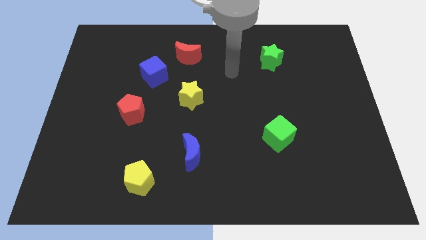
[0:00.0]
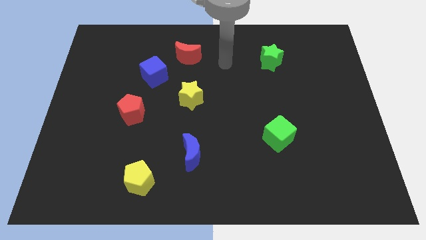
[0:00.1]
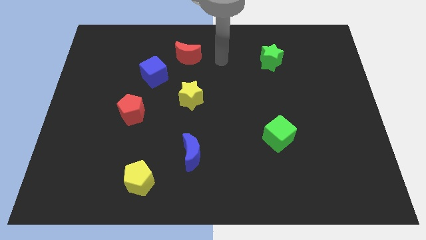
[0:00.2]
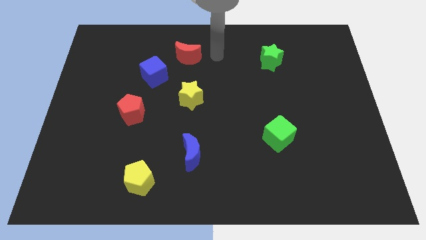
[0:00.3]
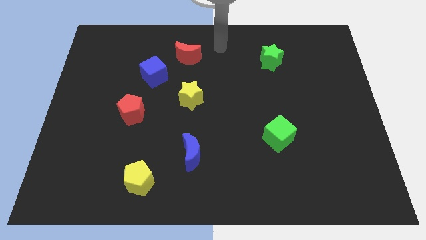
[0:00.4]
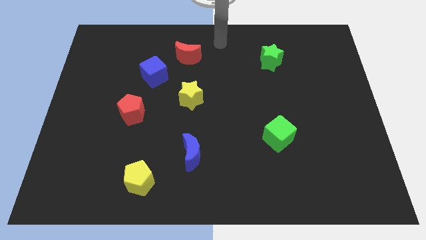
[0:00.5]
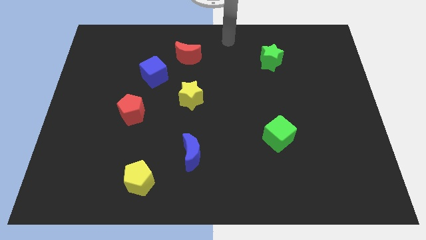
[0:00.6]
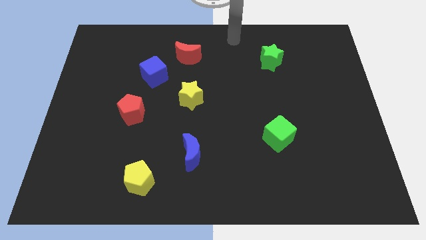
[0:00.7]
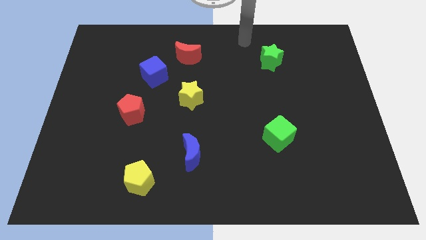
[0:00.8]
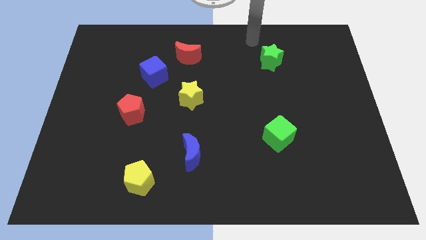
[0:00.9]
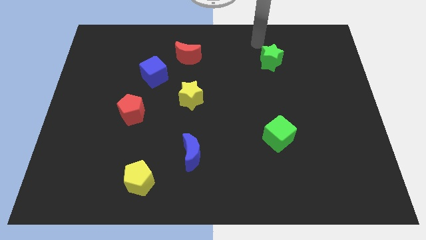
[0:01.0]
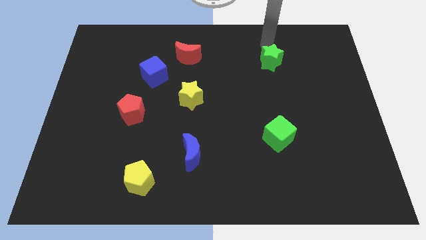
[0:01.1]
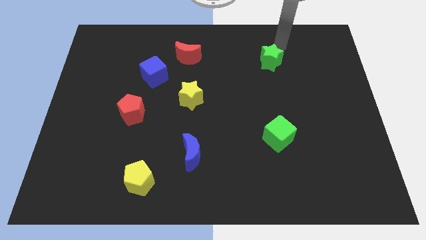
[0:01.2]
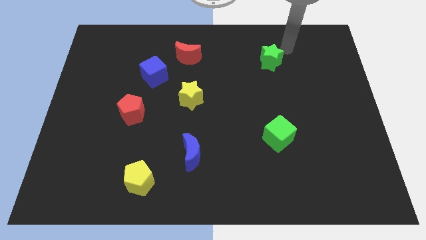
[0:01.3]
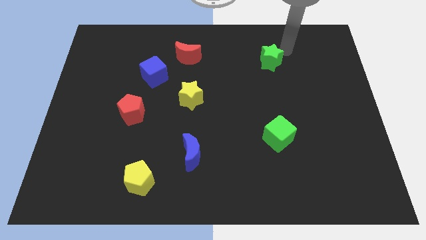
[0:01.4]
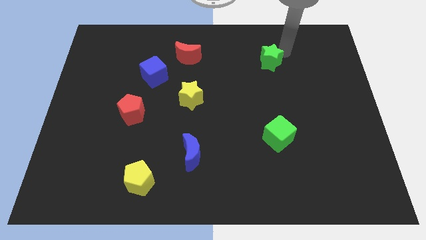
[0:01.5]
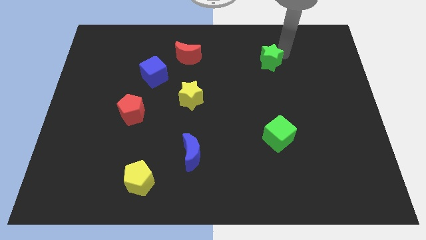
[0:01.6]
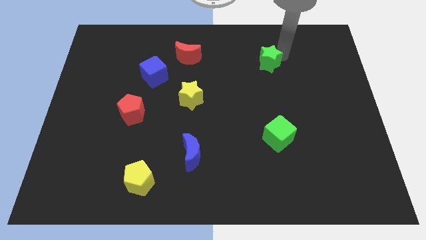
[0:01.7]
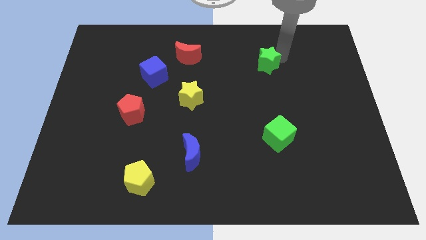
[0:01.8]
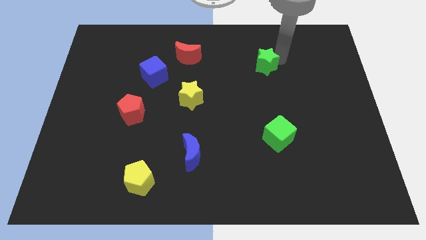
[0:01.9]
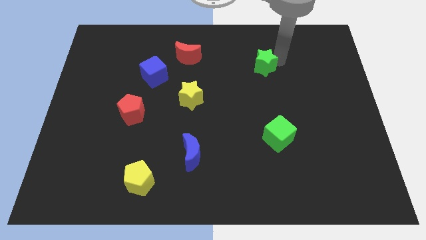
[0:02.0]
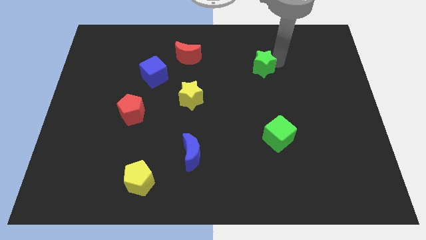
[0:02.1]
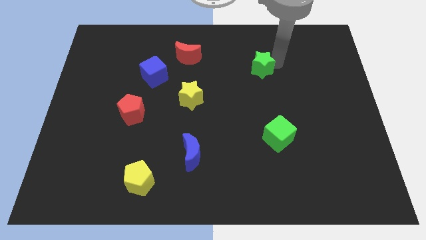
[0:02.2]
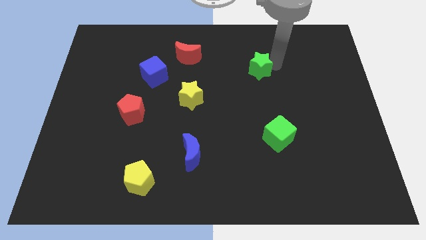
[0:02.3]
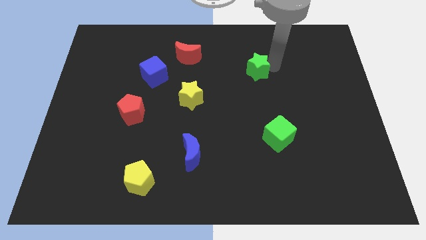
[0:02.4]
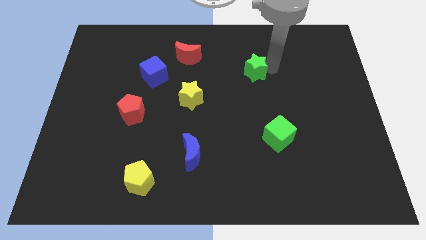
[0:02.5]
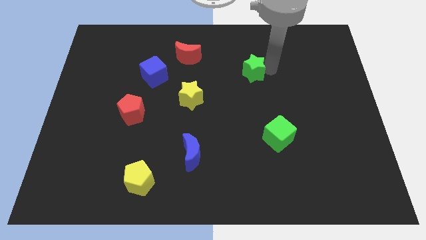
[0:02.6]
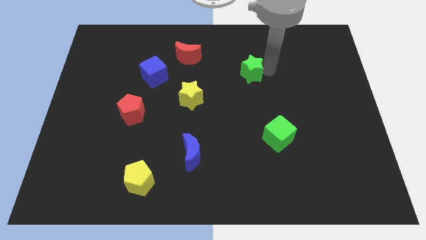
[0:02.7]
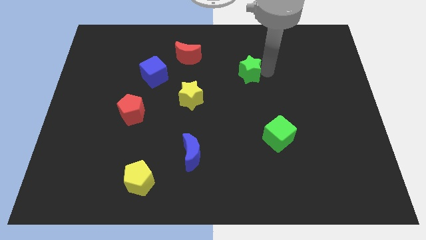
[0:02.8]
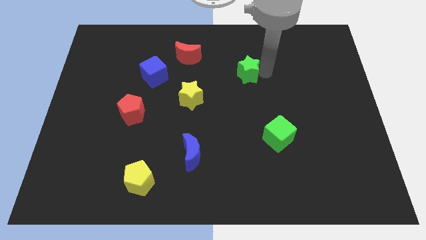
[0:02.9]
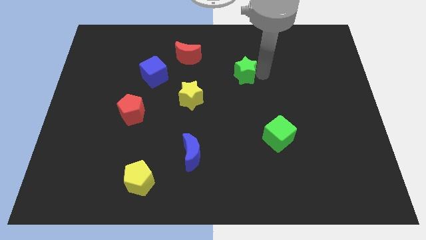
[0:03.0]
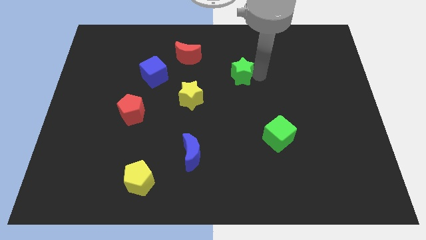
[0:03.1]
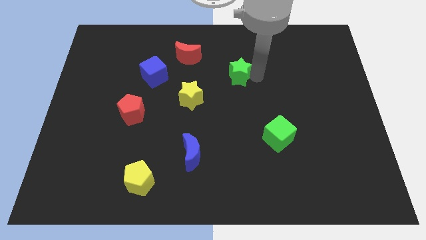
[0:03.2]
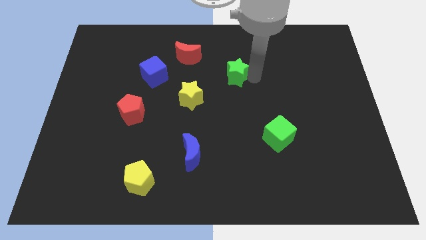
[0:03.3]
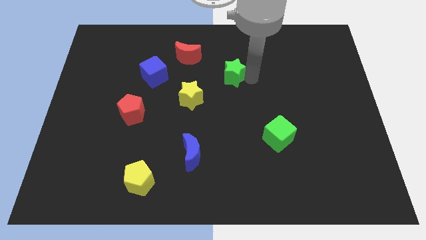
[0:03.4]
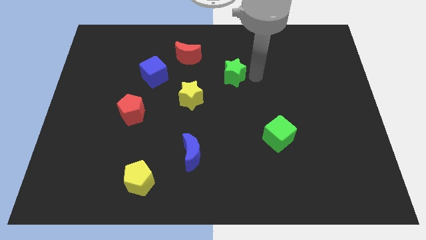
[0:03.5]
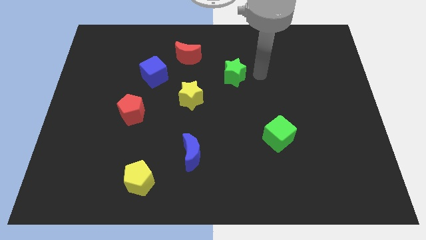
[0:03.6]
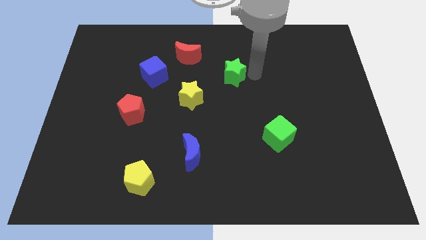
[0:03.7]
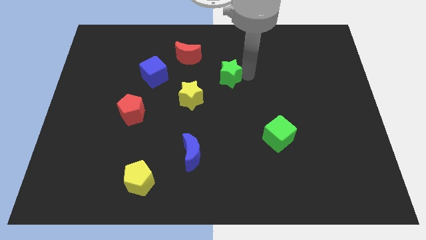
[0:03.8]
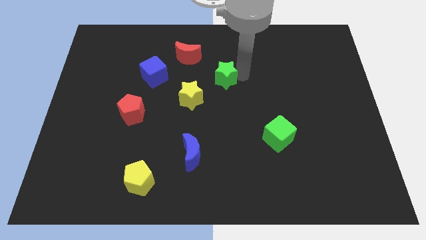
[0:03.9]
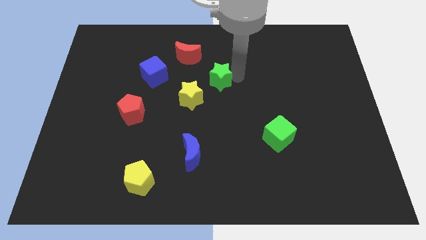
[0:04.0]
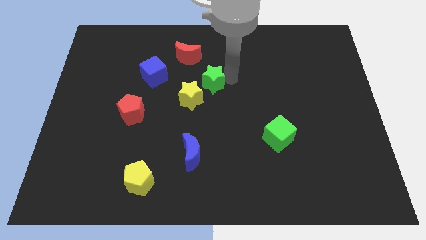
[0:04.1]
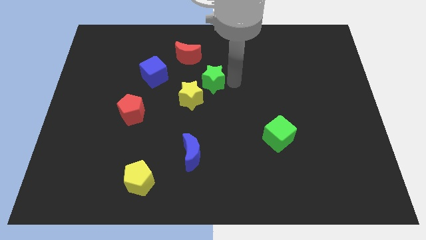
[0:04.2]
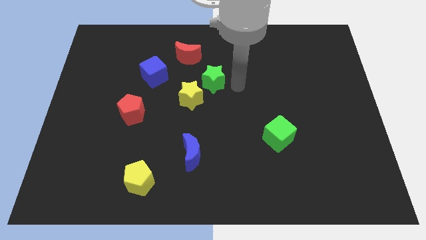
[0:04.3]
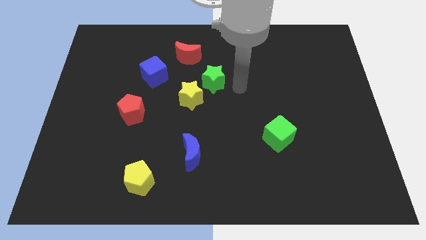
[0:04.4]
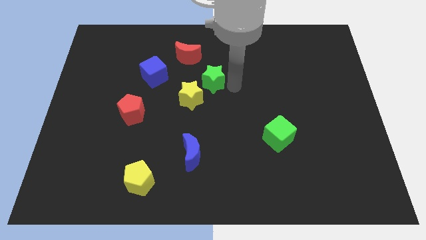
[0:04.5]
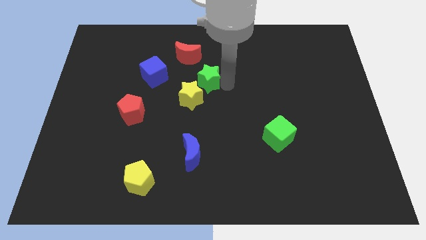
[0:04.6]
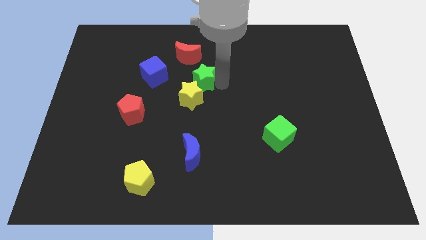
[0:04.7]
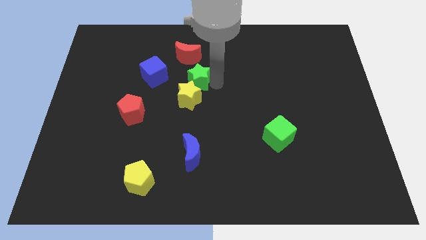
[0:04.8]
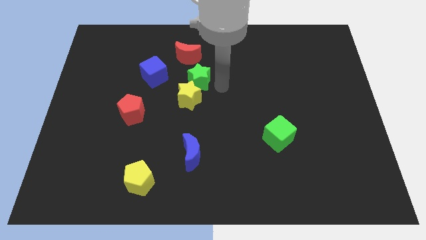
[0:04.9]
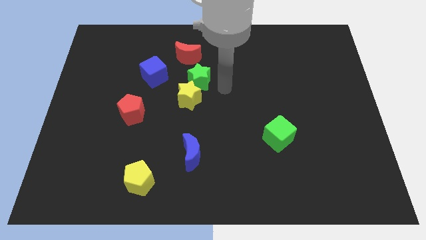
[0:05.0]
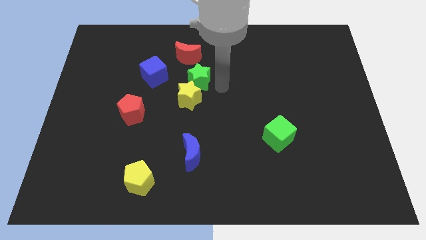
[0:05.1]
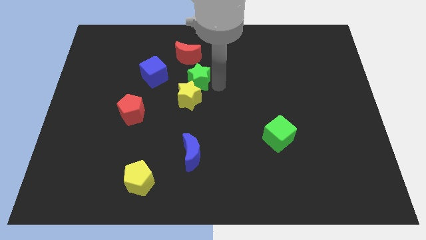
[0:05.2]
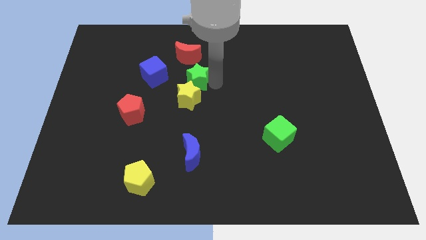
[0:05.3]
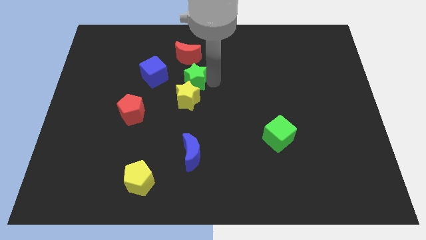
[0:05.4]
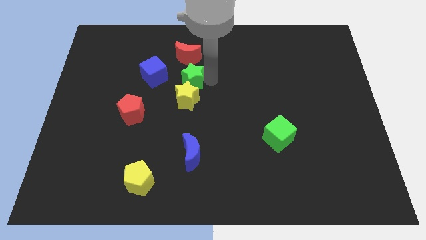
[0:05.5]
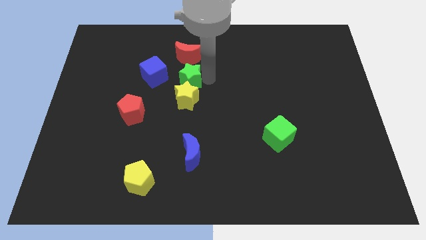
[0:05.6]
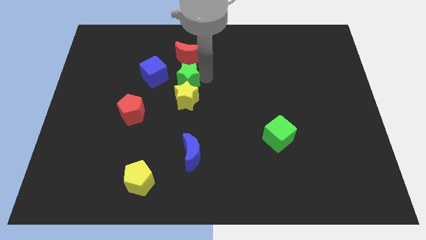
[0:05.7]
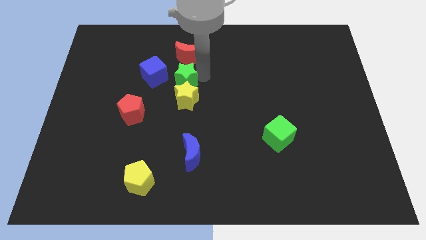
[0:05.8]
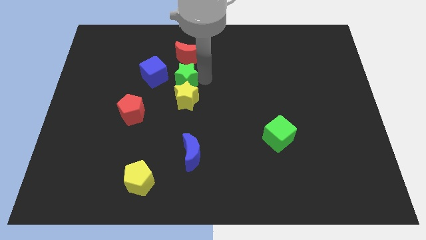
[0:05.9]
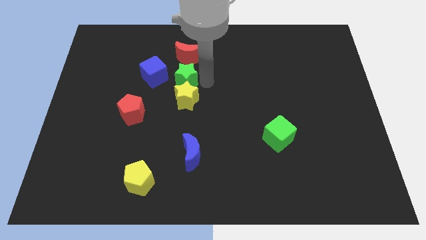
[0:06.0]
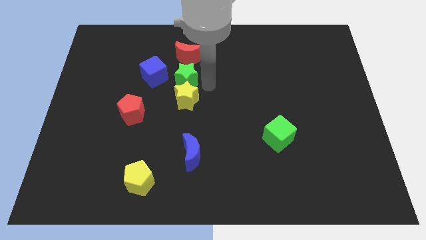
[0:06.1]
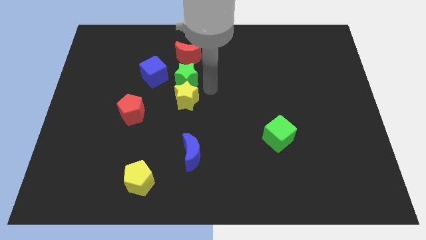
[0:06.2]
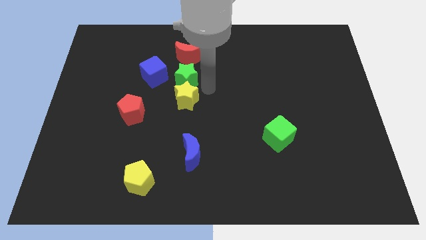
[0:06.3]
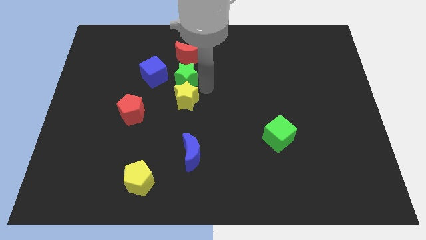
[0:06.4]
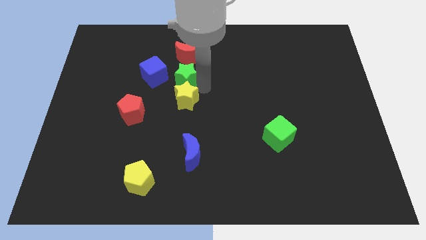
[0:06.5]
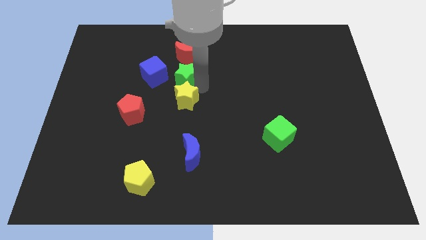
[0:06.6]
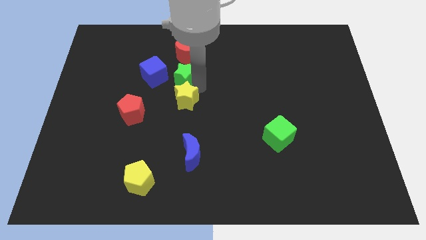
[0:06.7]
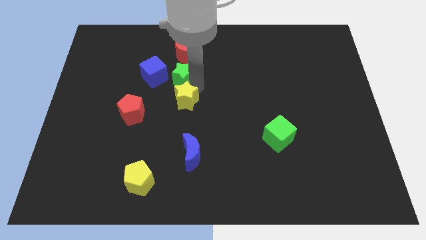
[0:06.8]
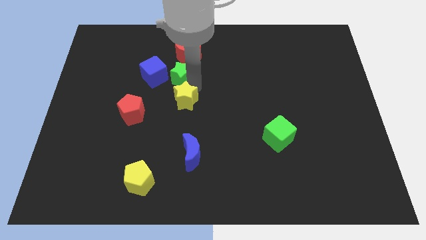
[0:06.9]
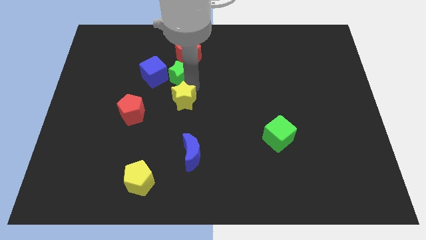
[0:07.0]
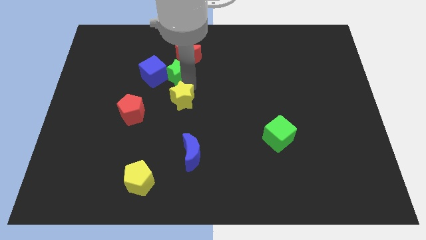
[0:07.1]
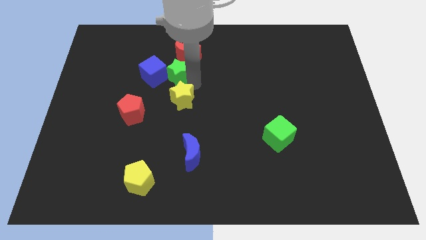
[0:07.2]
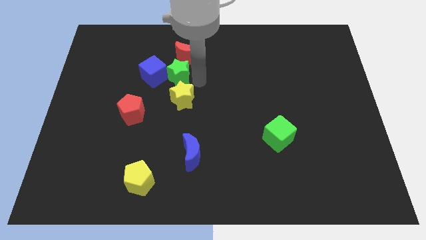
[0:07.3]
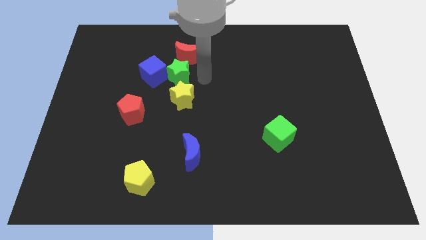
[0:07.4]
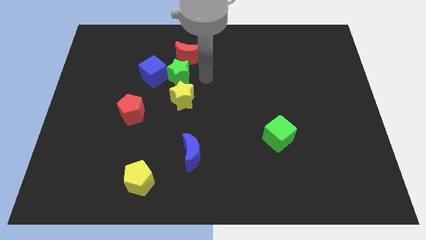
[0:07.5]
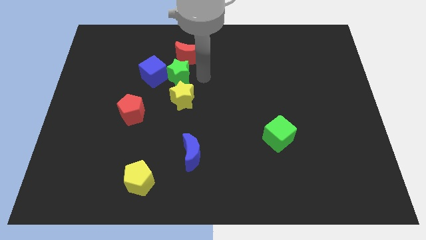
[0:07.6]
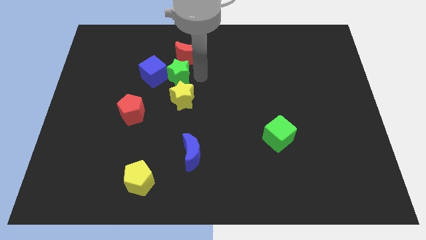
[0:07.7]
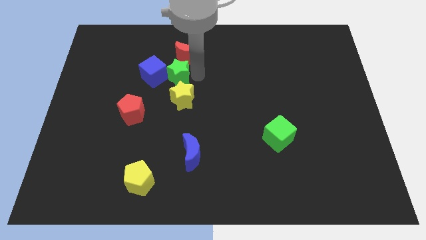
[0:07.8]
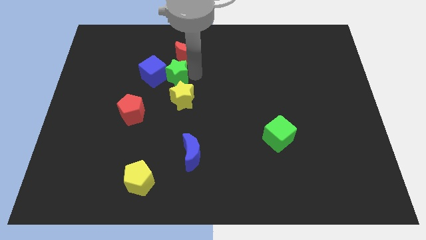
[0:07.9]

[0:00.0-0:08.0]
push the green star close to the blue cube

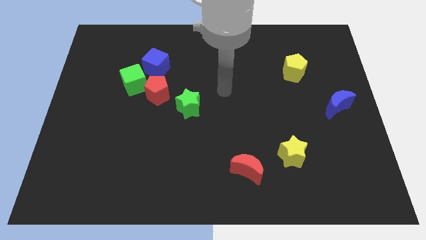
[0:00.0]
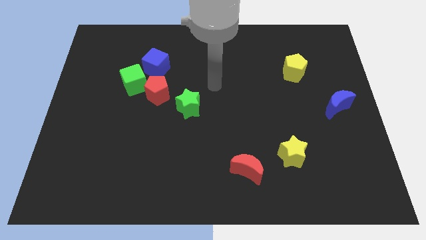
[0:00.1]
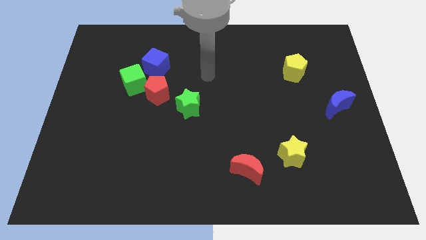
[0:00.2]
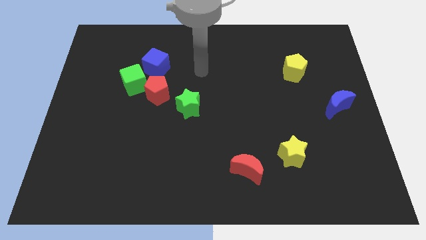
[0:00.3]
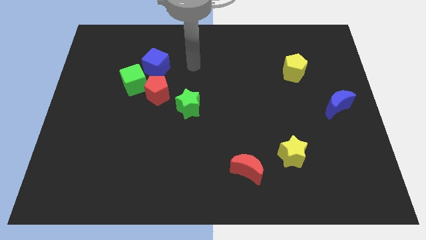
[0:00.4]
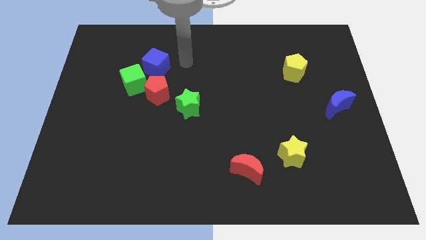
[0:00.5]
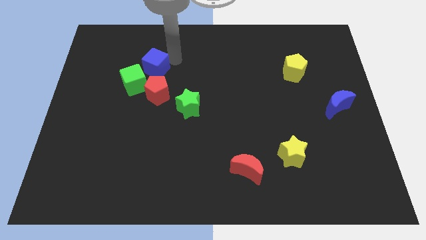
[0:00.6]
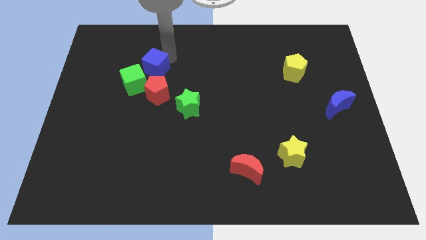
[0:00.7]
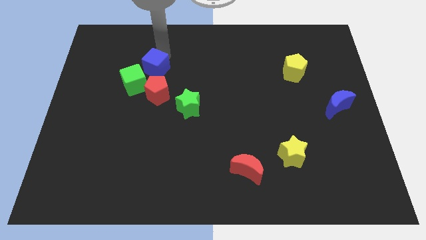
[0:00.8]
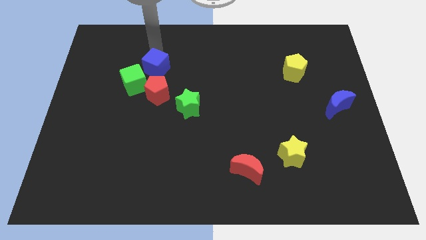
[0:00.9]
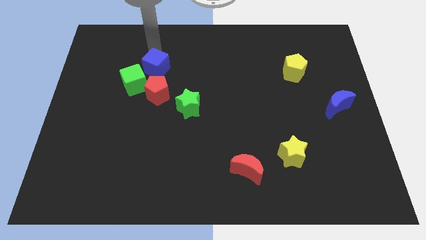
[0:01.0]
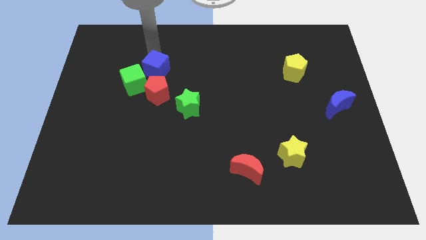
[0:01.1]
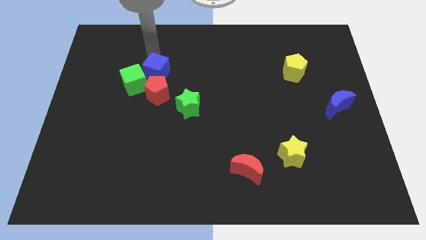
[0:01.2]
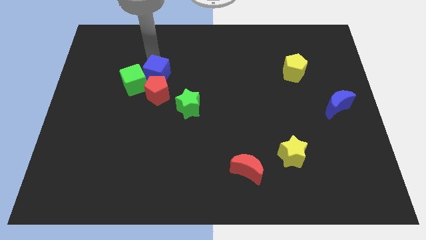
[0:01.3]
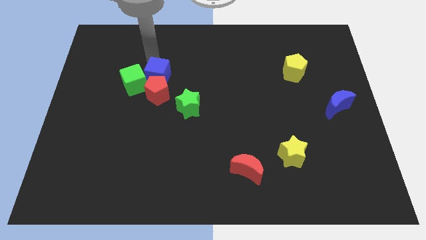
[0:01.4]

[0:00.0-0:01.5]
slide the blue cube next to the red pentagon
